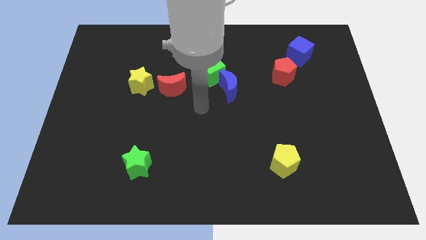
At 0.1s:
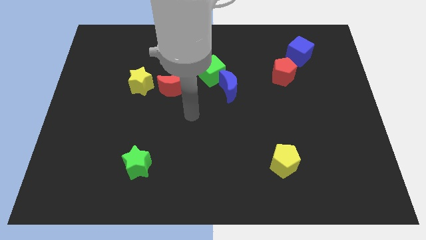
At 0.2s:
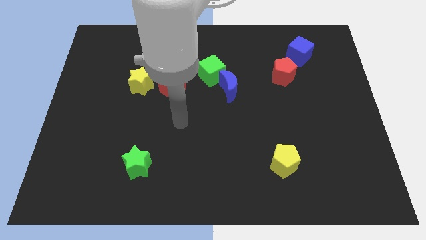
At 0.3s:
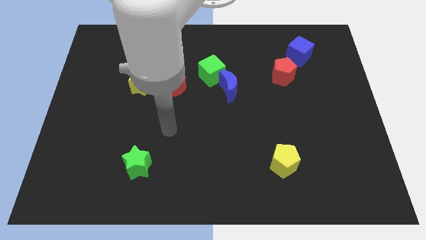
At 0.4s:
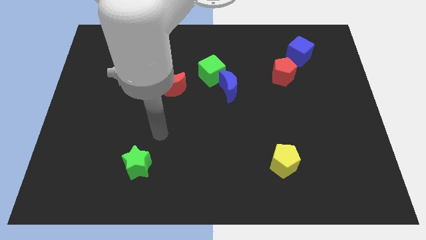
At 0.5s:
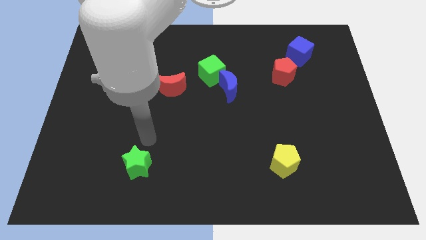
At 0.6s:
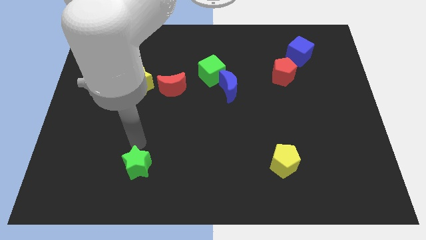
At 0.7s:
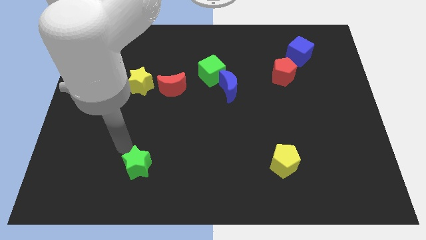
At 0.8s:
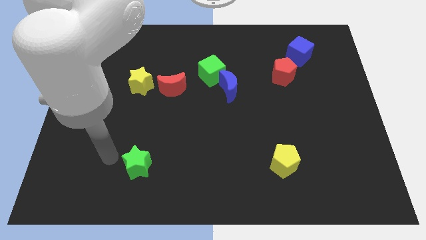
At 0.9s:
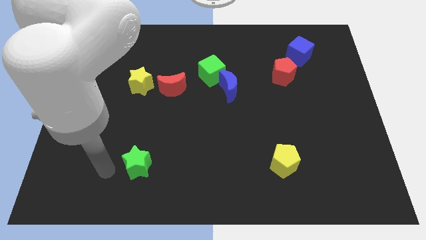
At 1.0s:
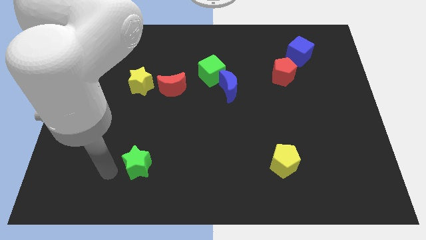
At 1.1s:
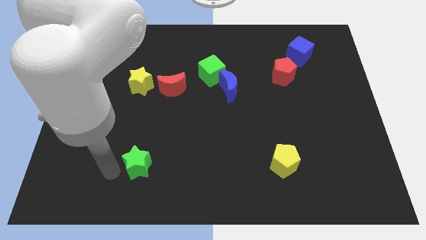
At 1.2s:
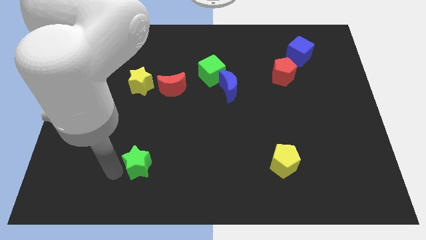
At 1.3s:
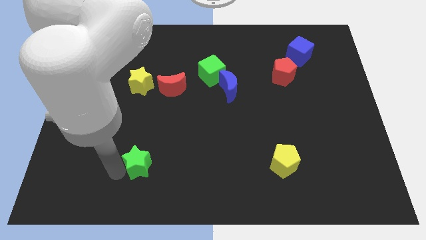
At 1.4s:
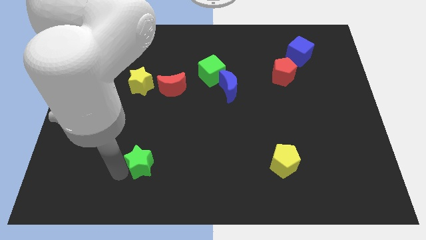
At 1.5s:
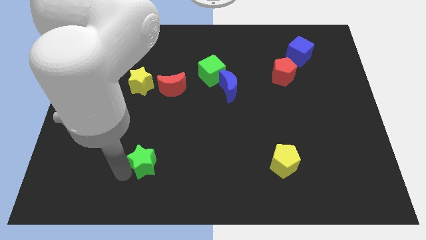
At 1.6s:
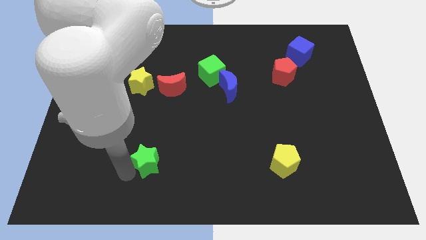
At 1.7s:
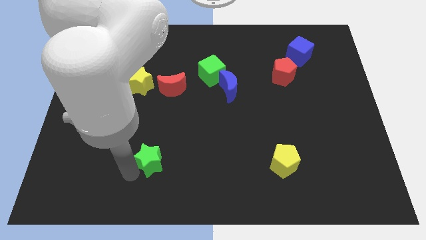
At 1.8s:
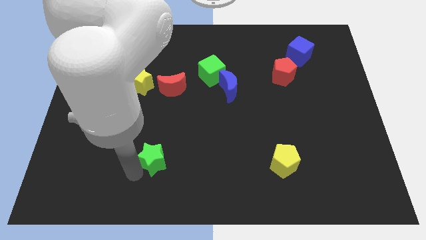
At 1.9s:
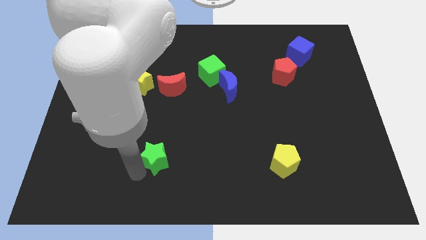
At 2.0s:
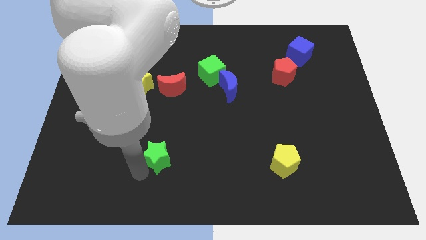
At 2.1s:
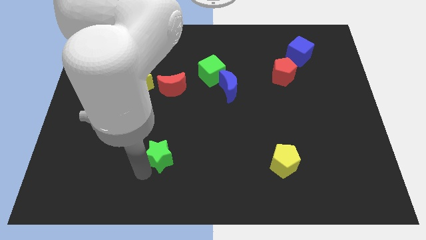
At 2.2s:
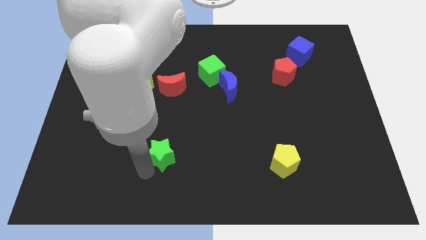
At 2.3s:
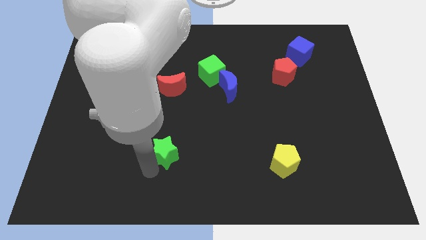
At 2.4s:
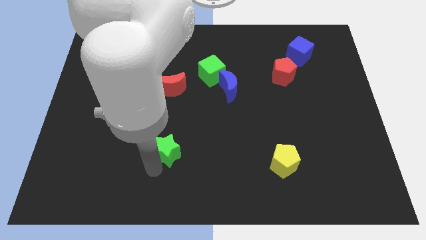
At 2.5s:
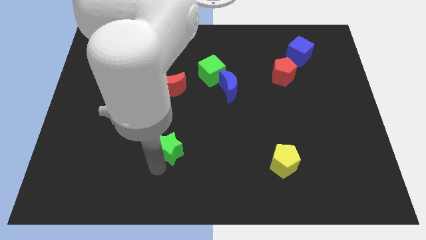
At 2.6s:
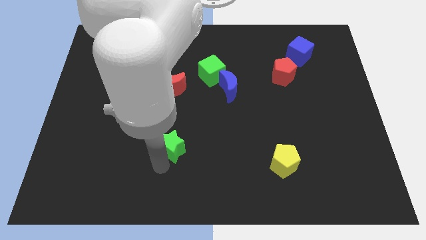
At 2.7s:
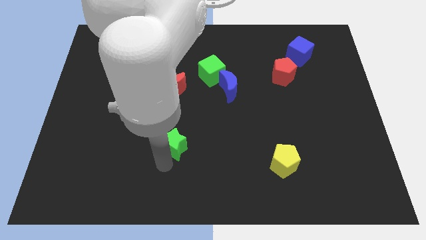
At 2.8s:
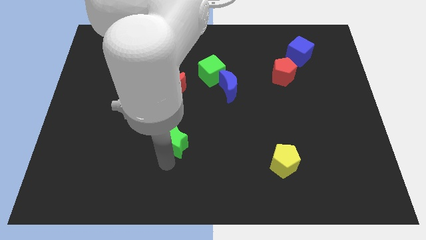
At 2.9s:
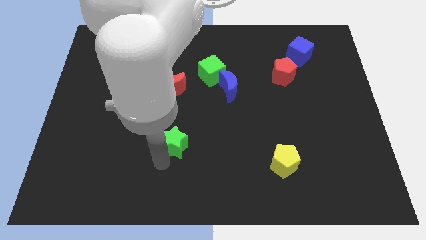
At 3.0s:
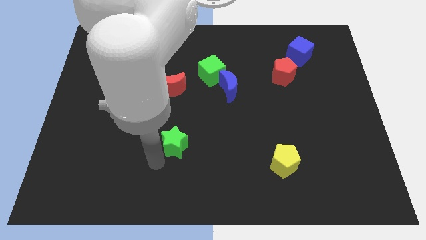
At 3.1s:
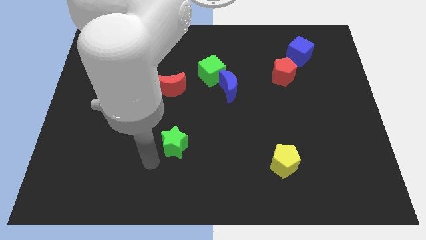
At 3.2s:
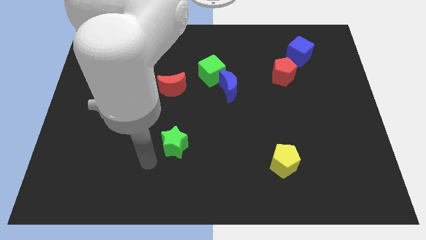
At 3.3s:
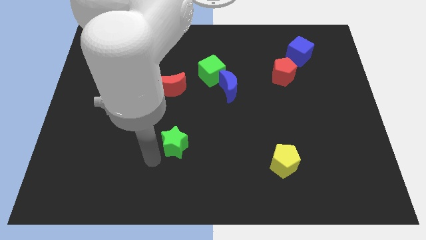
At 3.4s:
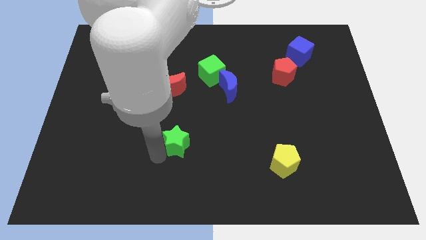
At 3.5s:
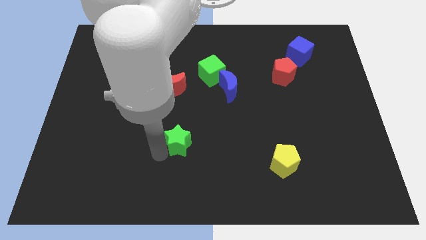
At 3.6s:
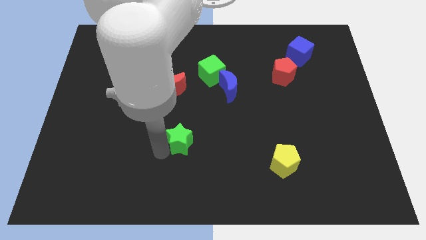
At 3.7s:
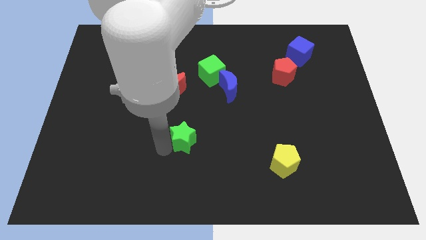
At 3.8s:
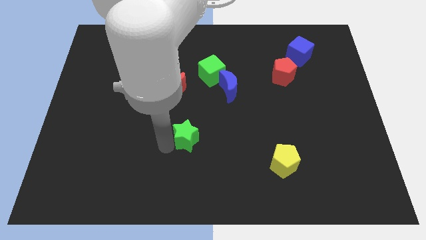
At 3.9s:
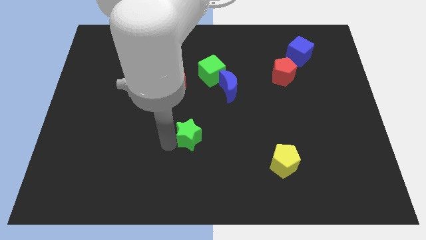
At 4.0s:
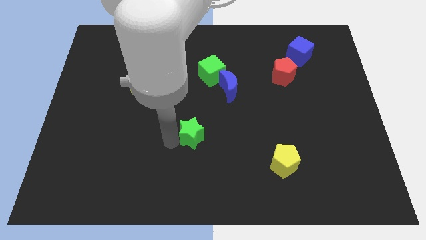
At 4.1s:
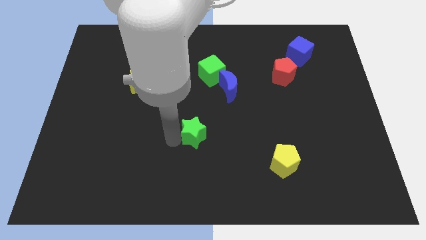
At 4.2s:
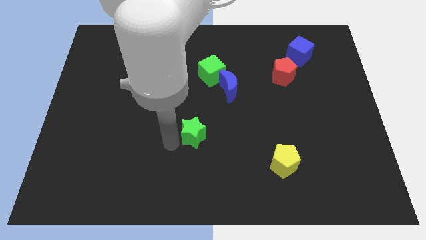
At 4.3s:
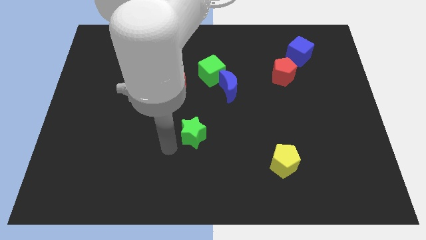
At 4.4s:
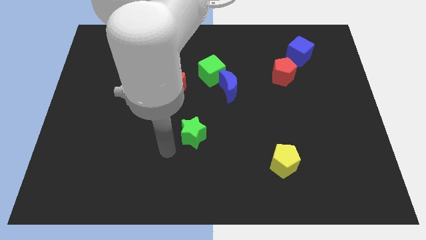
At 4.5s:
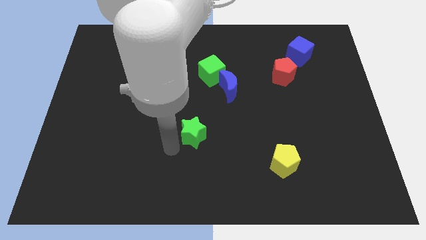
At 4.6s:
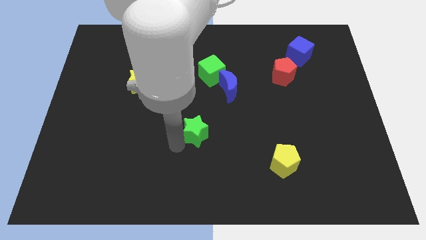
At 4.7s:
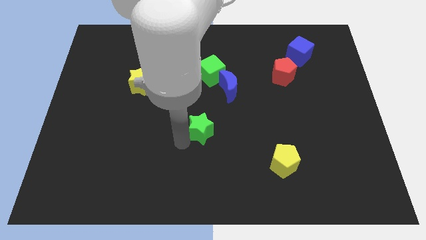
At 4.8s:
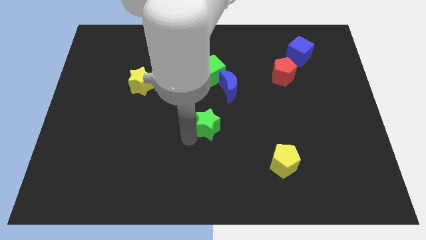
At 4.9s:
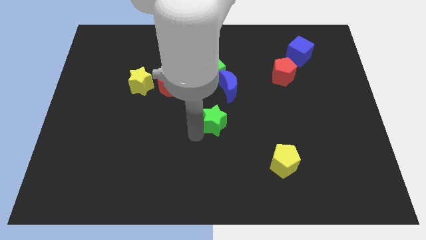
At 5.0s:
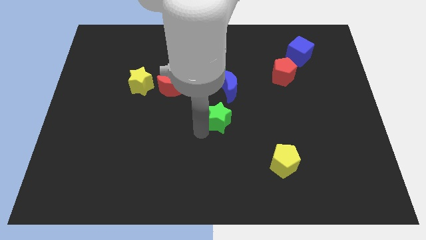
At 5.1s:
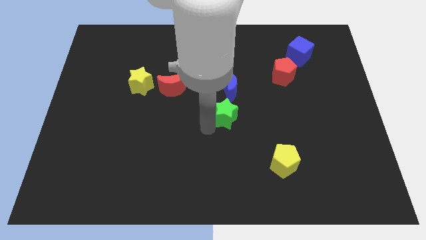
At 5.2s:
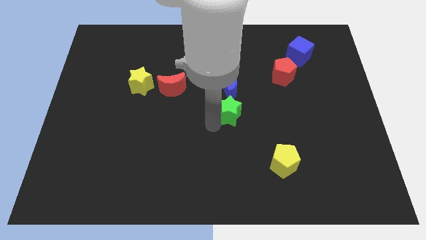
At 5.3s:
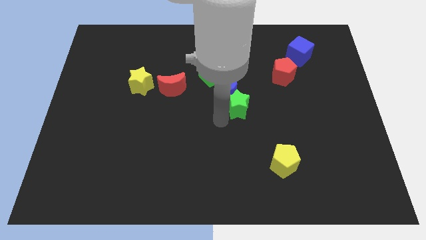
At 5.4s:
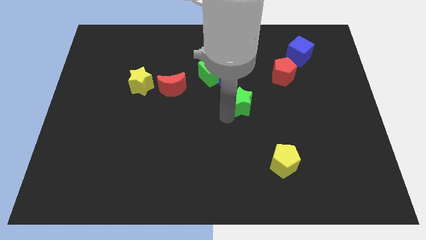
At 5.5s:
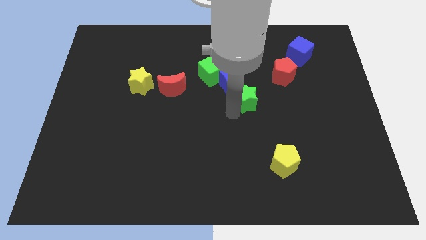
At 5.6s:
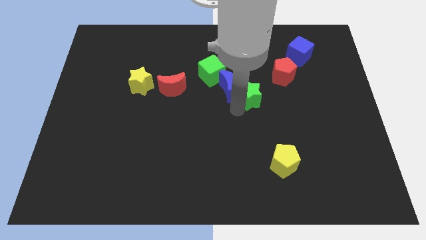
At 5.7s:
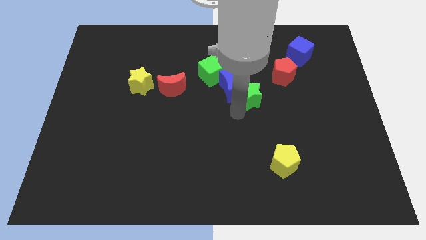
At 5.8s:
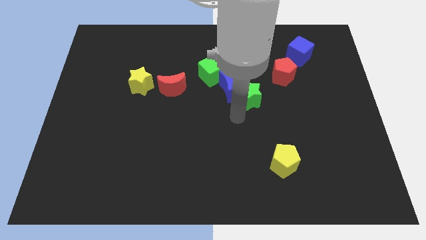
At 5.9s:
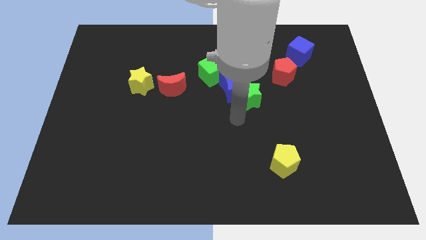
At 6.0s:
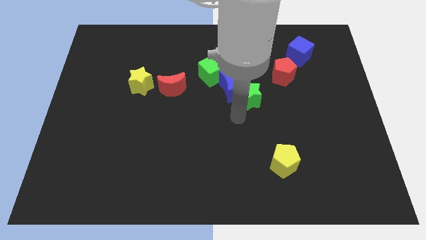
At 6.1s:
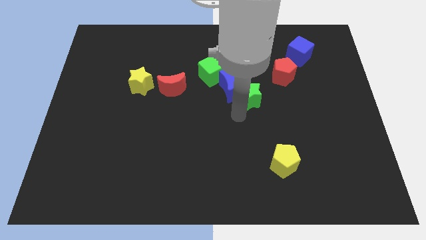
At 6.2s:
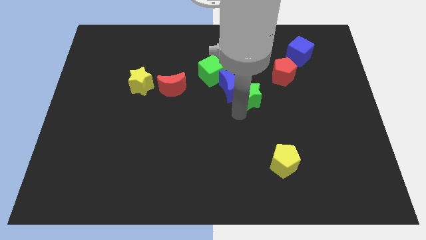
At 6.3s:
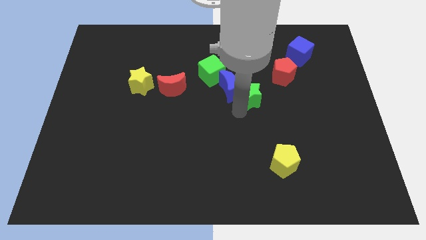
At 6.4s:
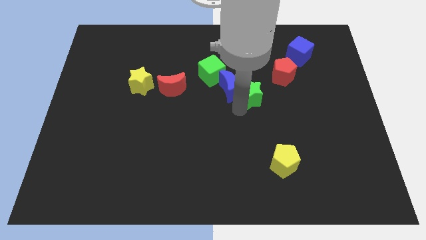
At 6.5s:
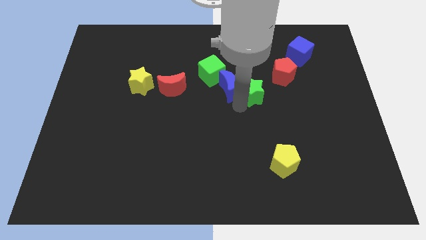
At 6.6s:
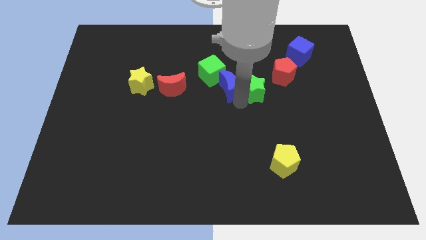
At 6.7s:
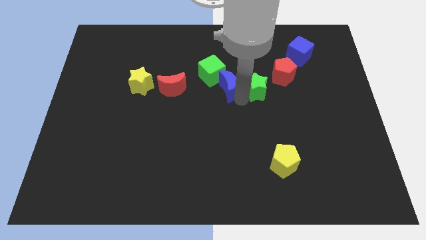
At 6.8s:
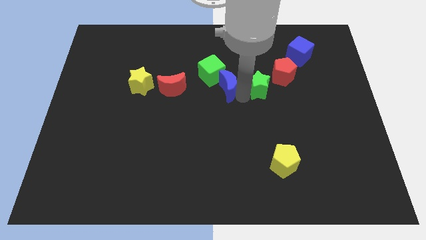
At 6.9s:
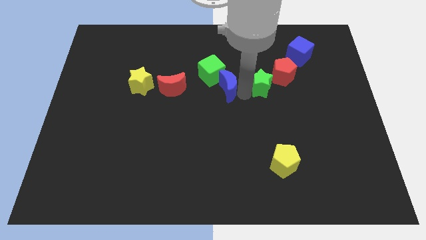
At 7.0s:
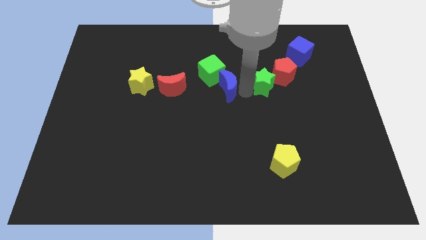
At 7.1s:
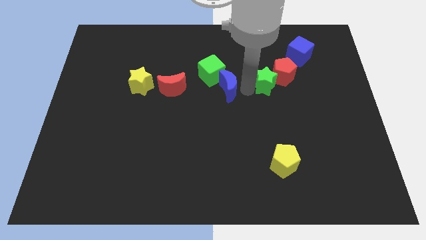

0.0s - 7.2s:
push the green star towards the red pentagon

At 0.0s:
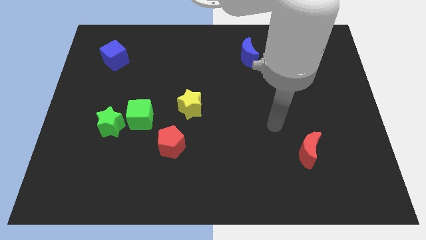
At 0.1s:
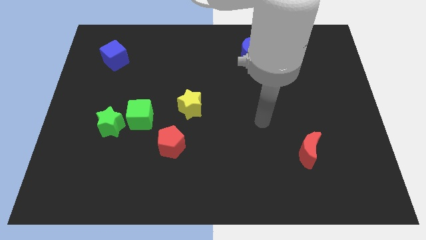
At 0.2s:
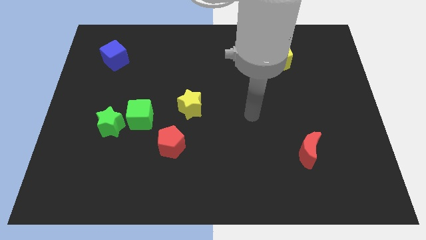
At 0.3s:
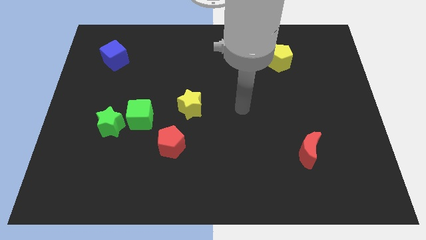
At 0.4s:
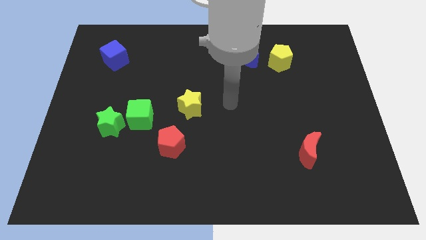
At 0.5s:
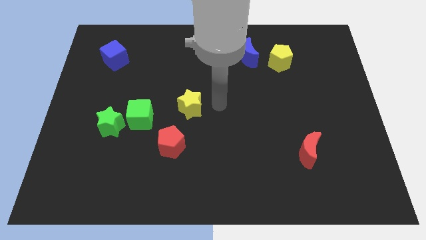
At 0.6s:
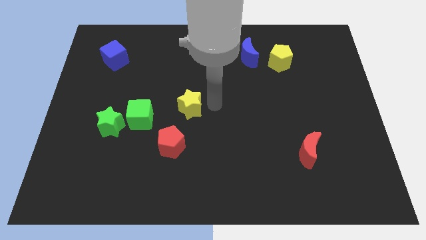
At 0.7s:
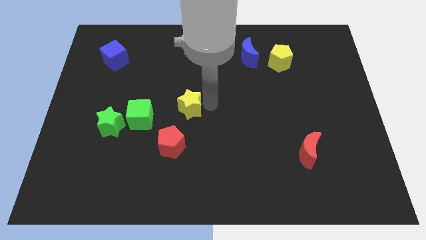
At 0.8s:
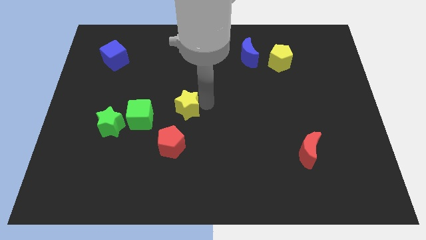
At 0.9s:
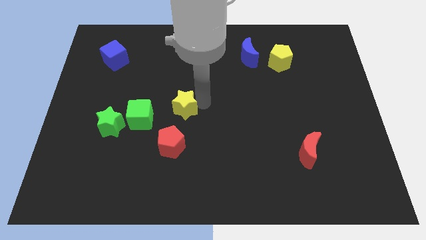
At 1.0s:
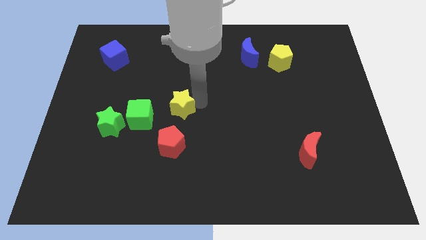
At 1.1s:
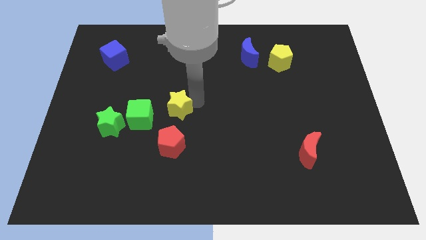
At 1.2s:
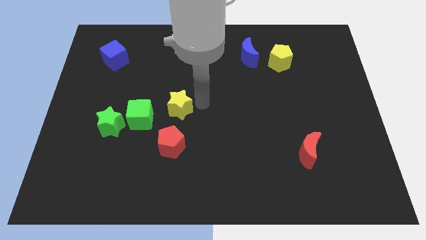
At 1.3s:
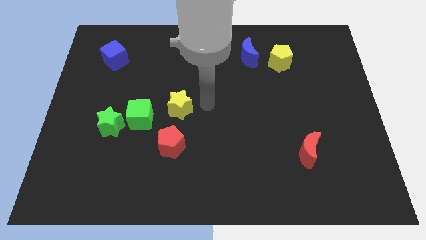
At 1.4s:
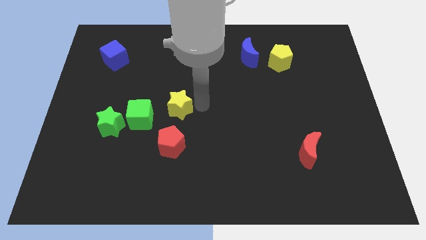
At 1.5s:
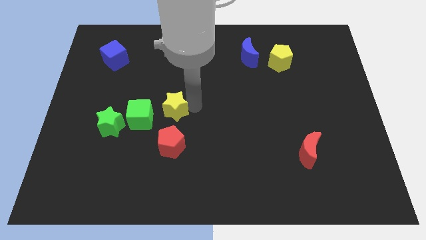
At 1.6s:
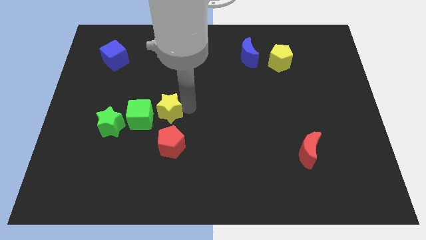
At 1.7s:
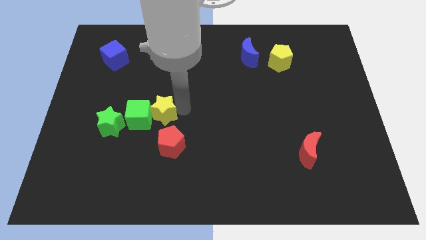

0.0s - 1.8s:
move the yellow star towards the green cube
